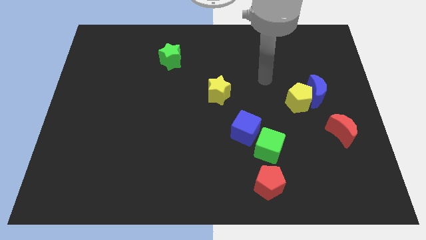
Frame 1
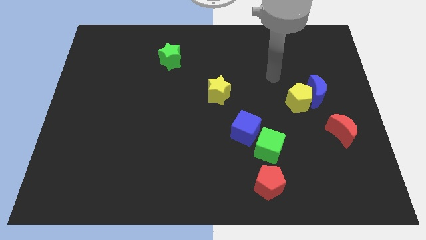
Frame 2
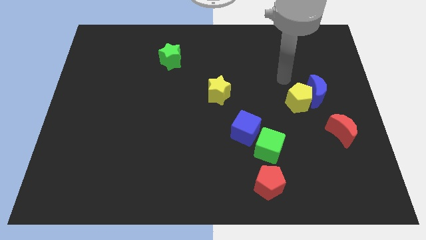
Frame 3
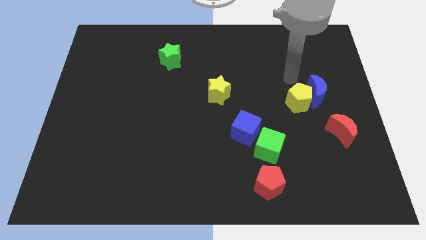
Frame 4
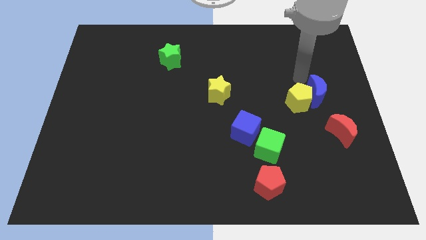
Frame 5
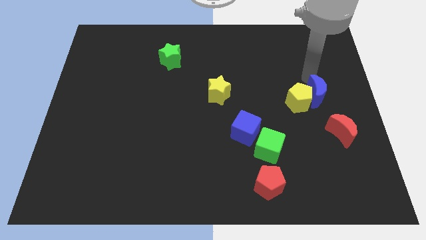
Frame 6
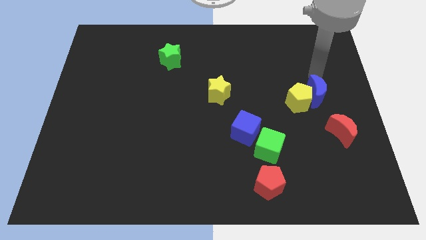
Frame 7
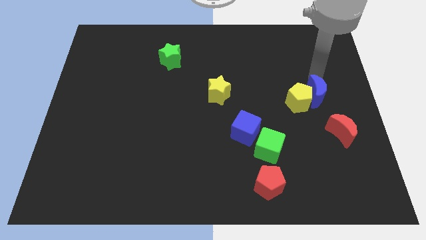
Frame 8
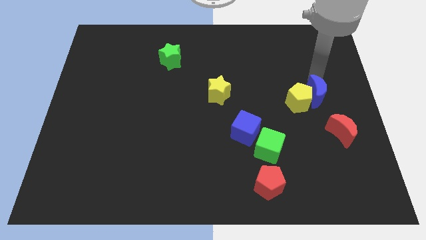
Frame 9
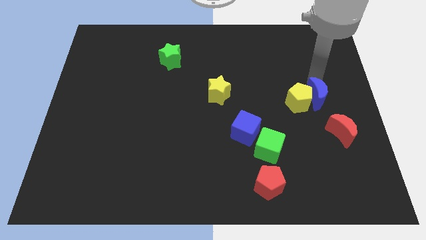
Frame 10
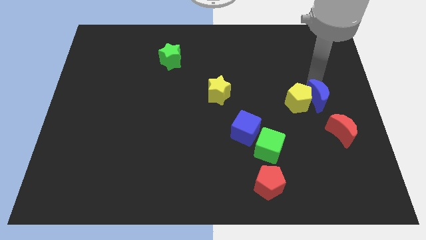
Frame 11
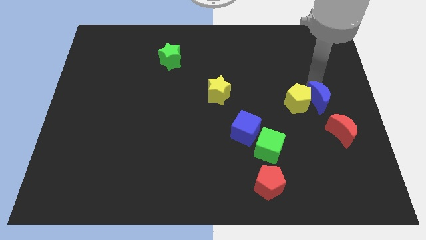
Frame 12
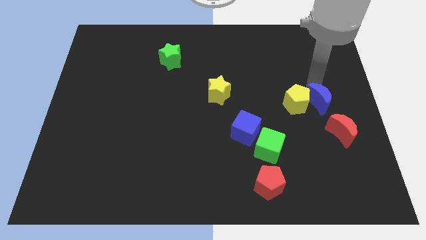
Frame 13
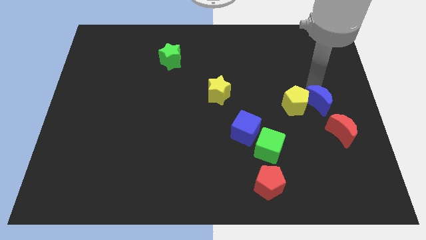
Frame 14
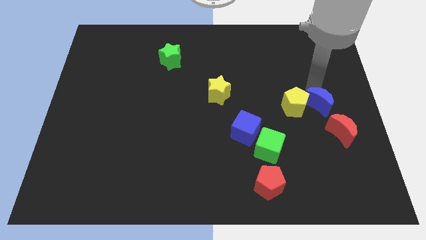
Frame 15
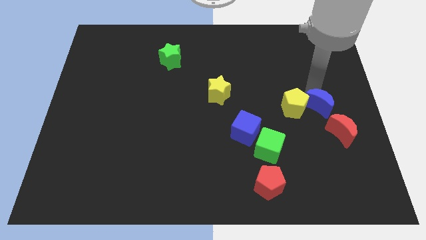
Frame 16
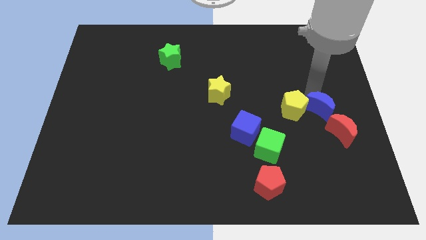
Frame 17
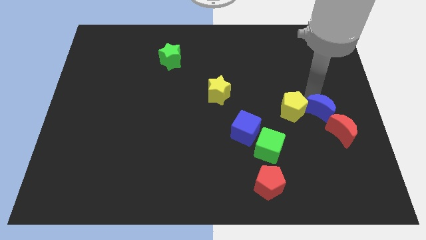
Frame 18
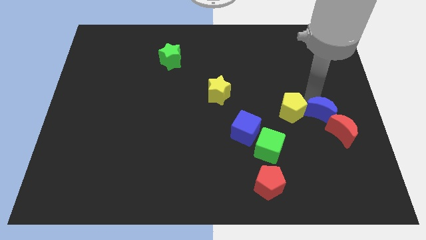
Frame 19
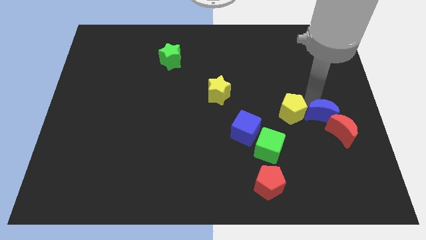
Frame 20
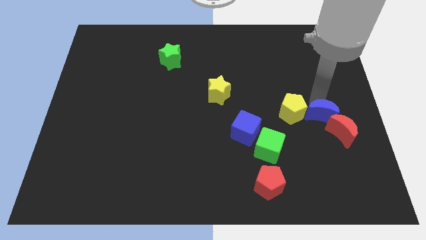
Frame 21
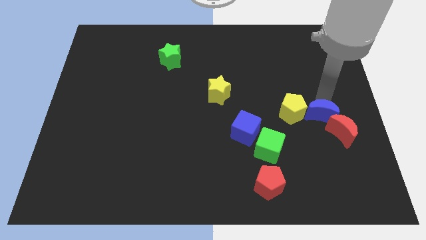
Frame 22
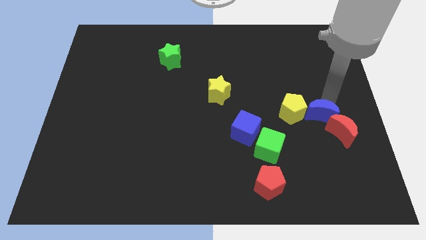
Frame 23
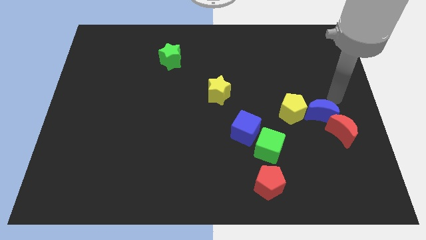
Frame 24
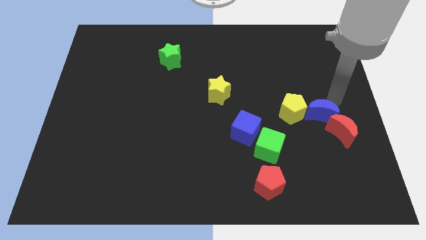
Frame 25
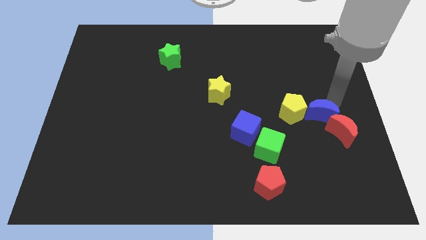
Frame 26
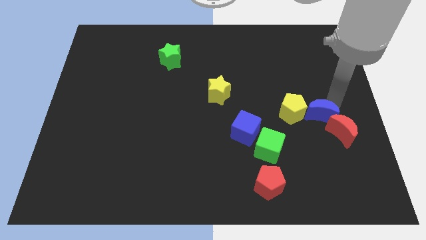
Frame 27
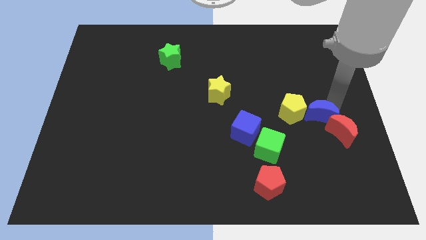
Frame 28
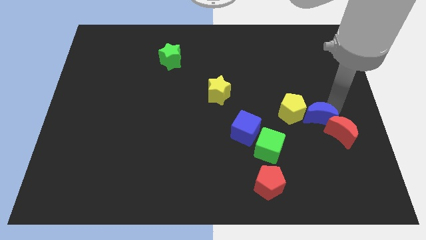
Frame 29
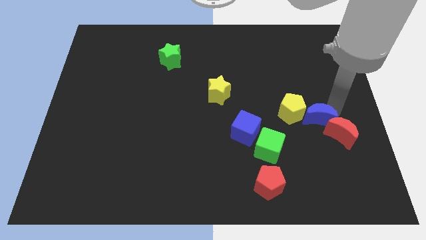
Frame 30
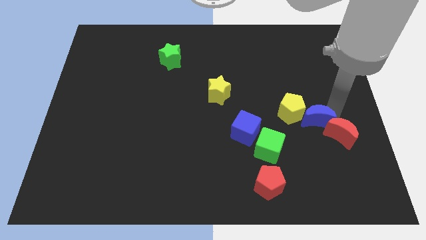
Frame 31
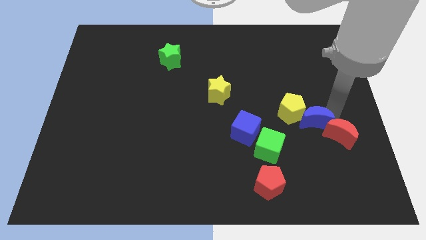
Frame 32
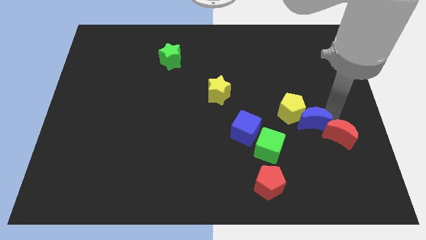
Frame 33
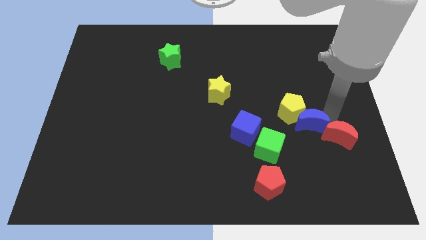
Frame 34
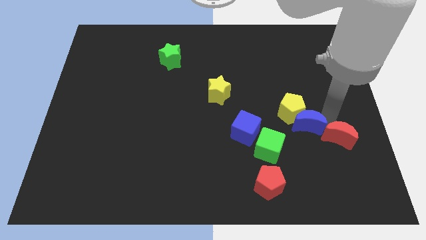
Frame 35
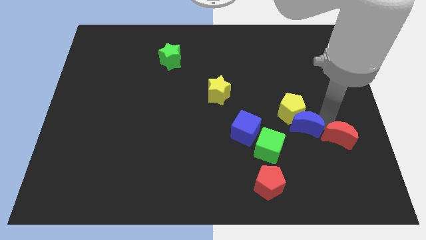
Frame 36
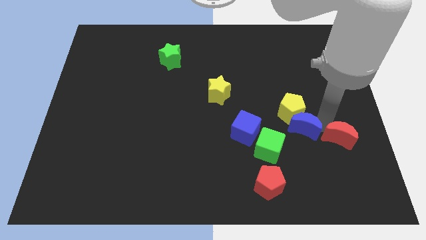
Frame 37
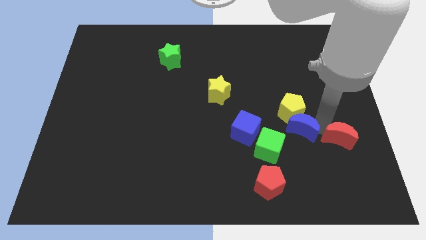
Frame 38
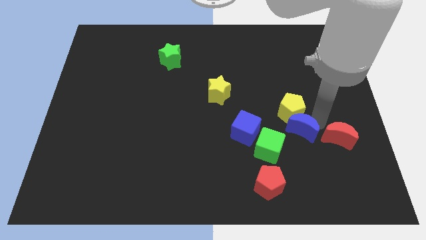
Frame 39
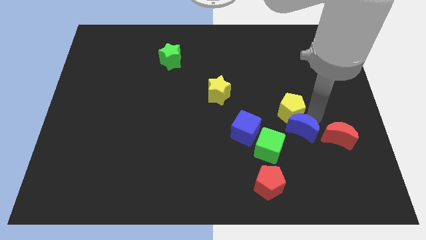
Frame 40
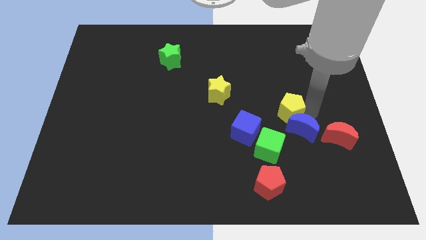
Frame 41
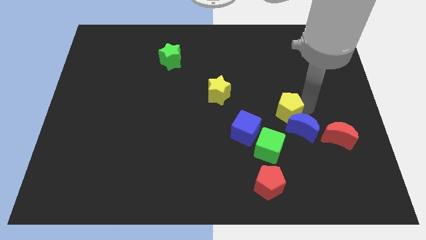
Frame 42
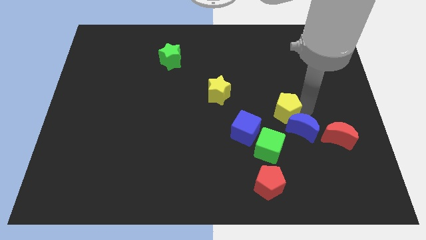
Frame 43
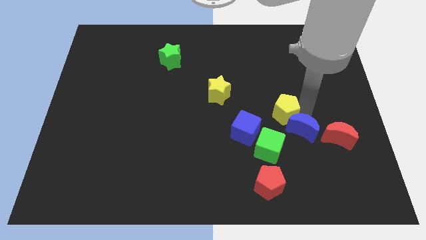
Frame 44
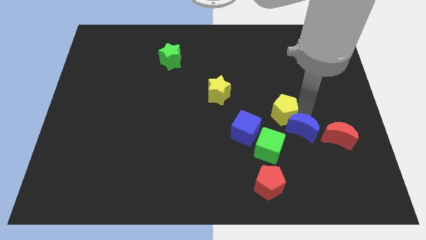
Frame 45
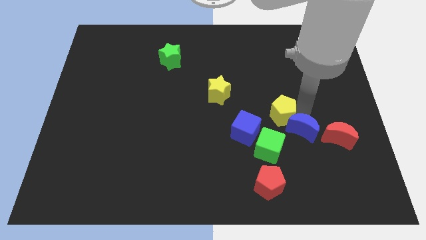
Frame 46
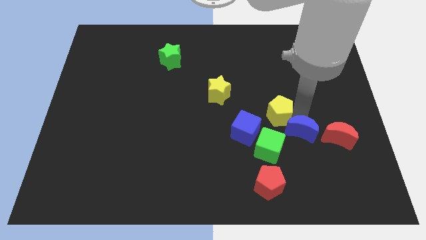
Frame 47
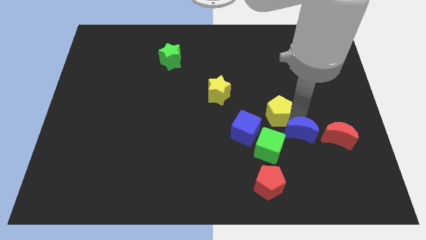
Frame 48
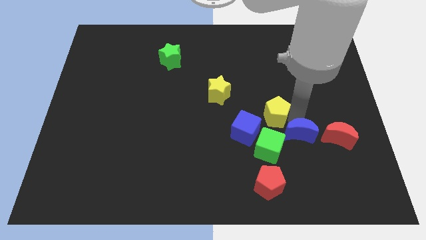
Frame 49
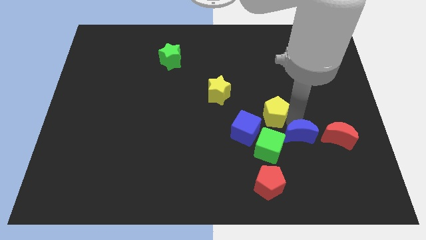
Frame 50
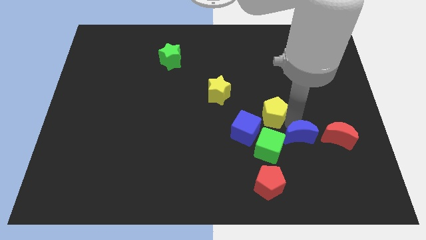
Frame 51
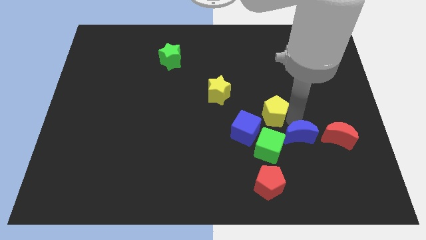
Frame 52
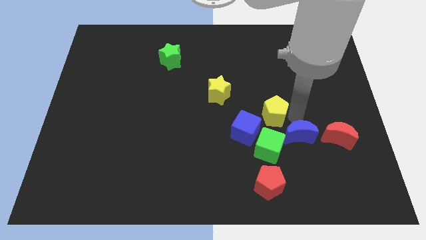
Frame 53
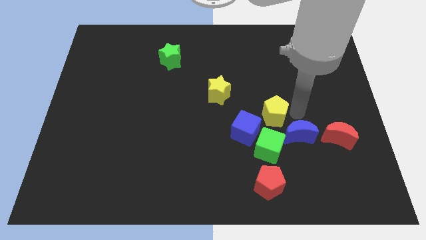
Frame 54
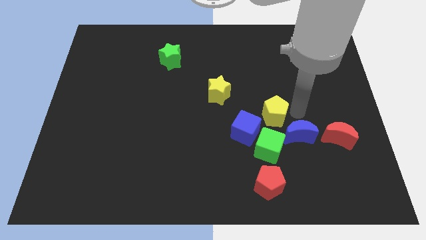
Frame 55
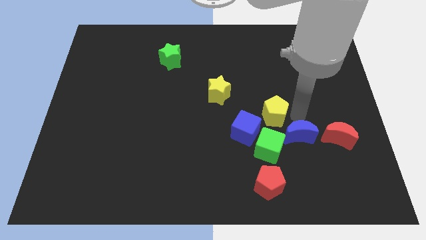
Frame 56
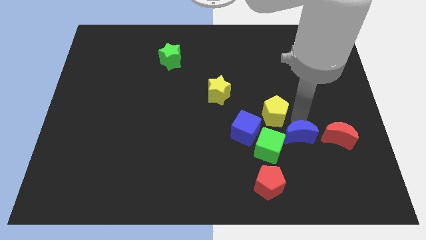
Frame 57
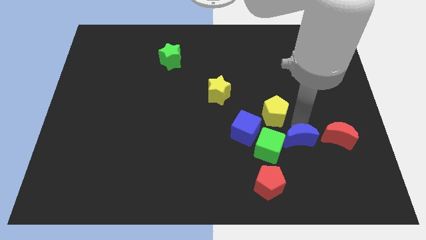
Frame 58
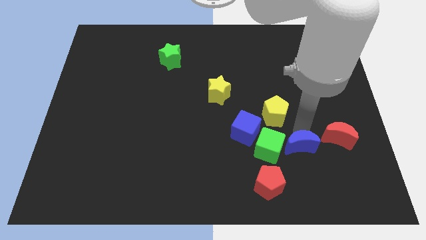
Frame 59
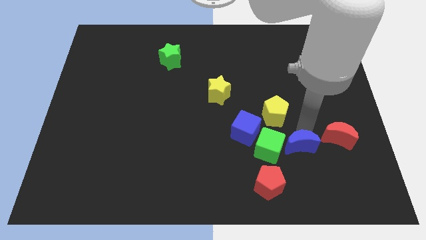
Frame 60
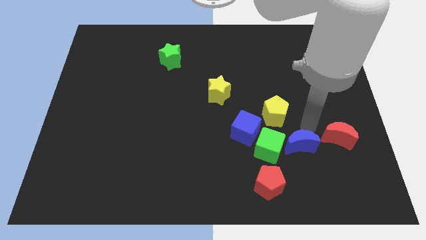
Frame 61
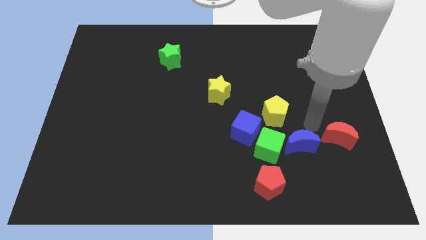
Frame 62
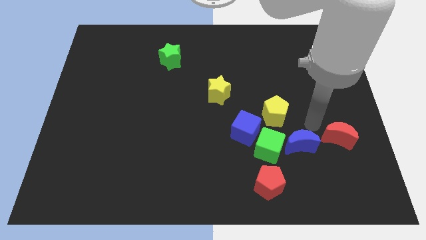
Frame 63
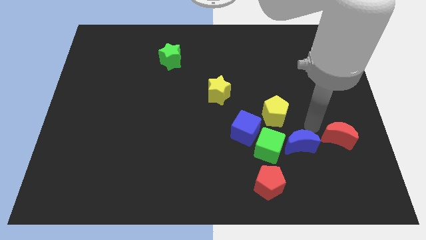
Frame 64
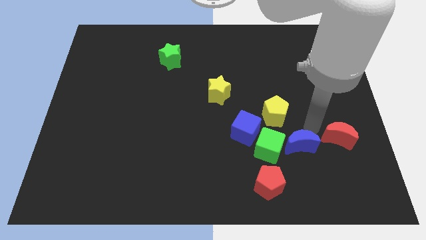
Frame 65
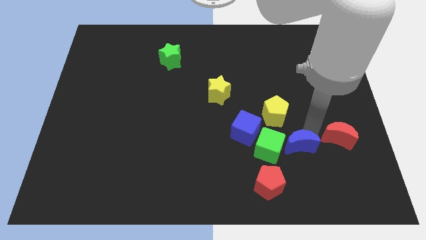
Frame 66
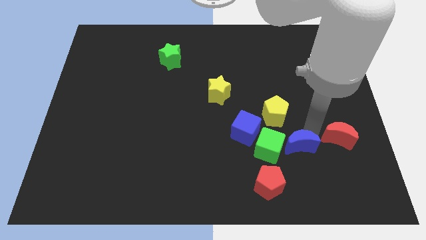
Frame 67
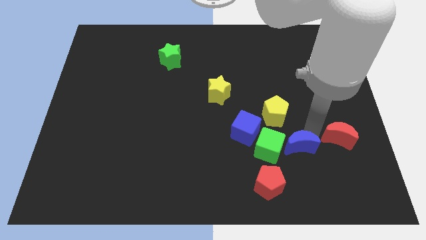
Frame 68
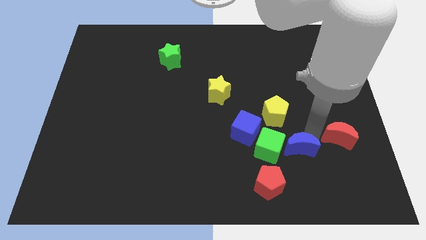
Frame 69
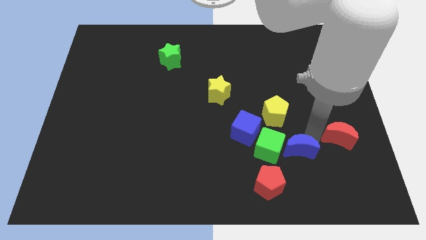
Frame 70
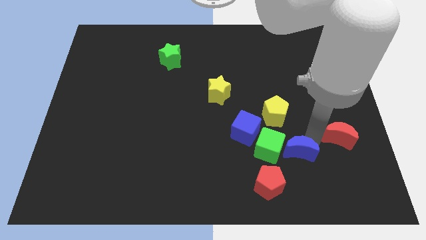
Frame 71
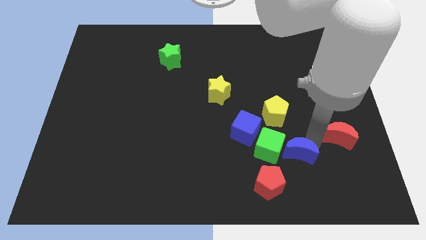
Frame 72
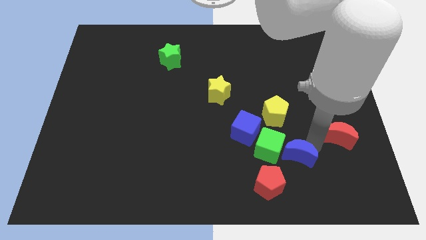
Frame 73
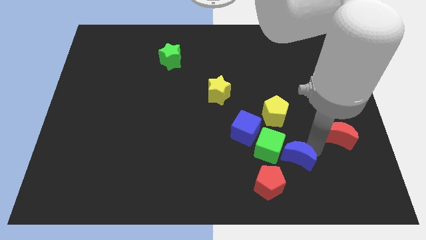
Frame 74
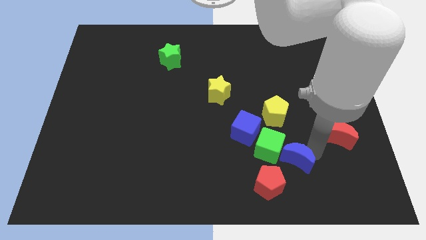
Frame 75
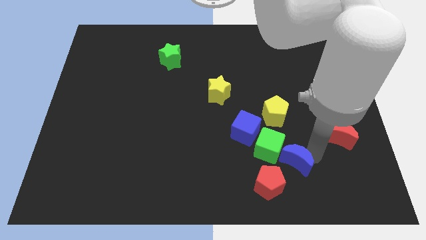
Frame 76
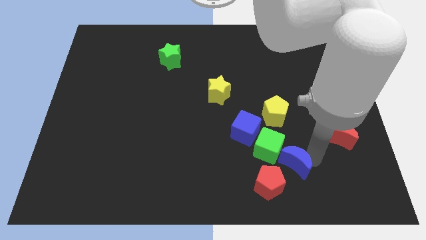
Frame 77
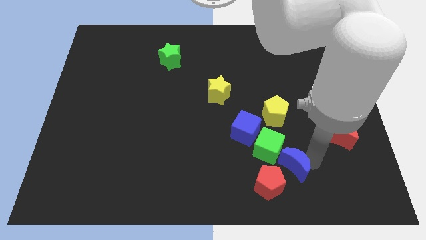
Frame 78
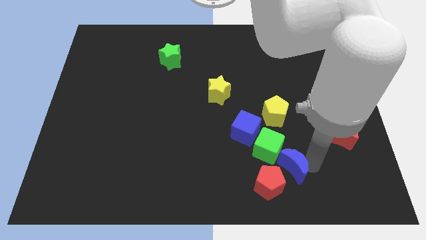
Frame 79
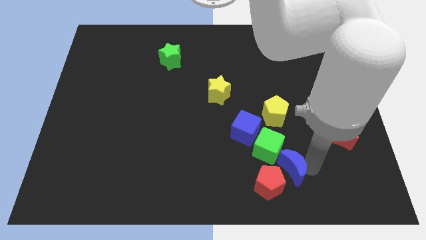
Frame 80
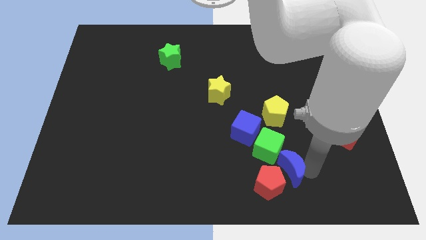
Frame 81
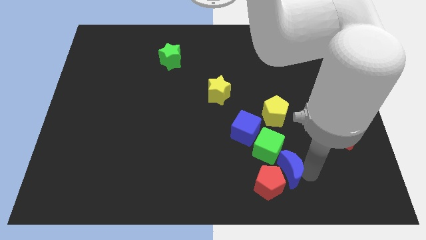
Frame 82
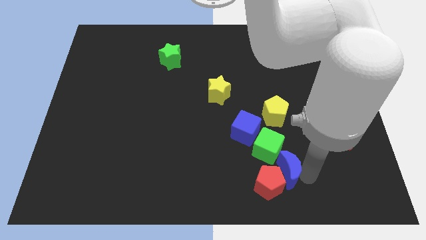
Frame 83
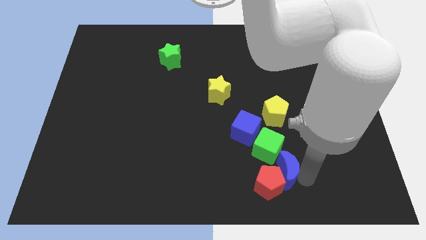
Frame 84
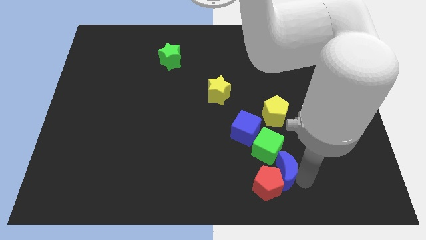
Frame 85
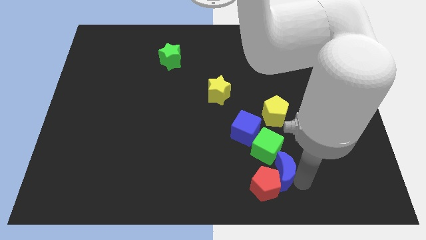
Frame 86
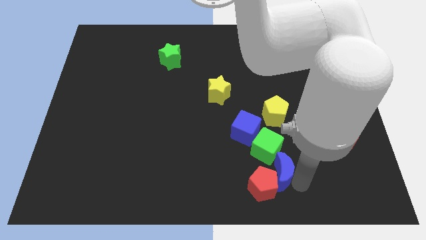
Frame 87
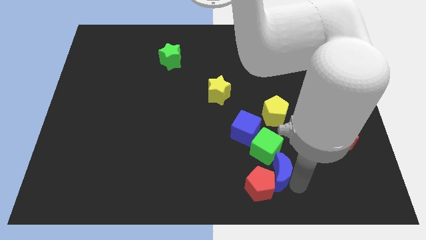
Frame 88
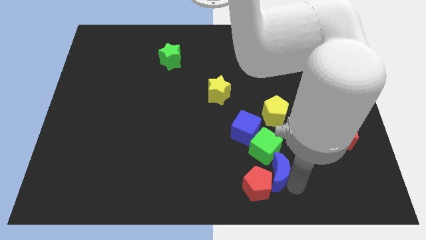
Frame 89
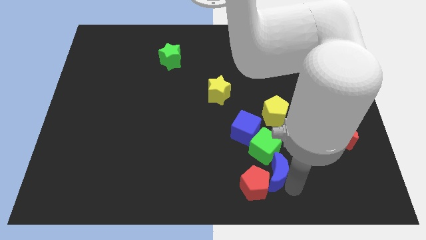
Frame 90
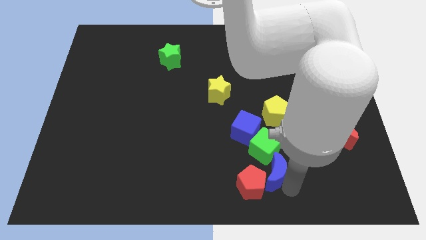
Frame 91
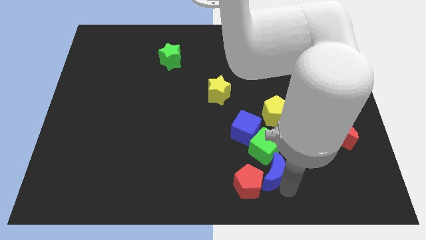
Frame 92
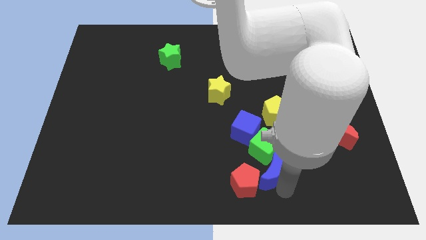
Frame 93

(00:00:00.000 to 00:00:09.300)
put the blue moon below the blue cube
